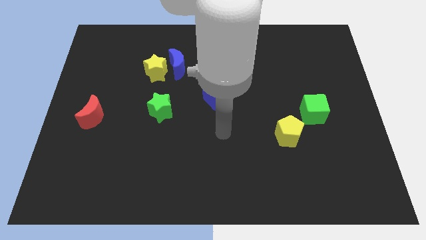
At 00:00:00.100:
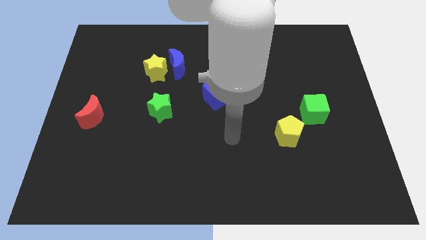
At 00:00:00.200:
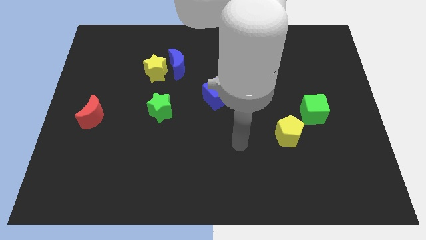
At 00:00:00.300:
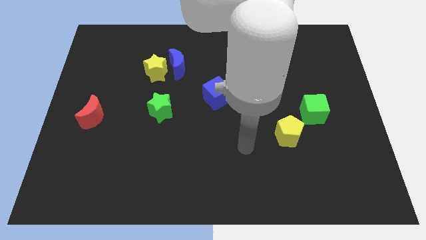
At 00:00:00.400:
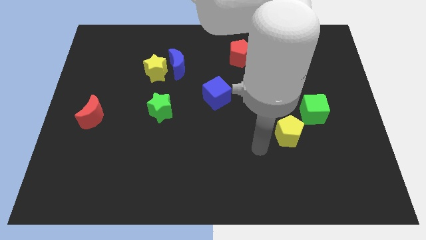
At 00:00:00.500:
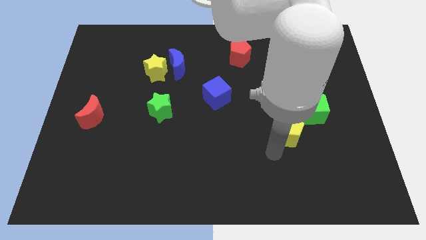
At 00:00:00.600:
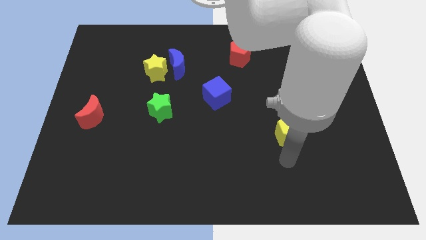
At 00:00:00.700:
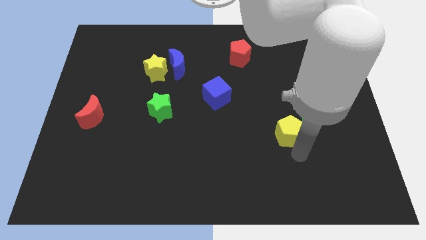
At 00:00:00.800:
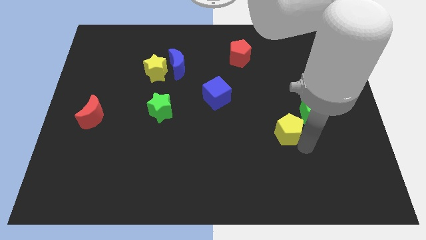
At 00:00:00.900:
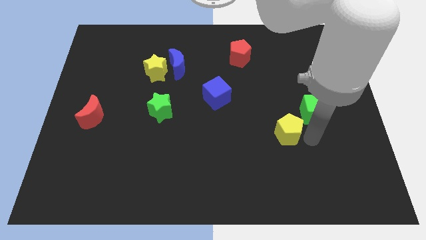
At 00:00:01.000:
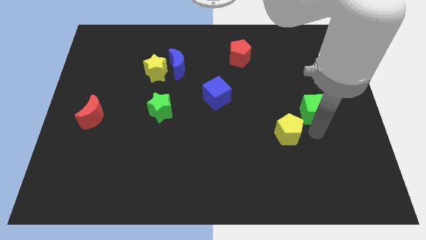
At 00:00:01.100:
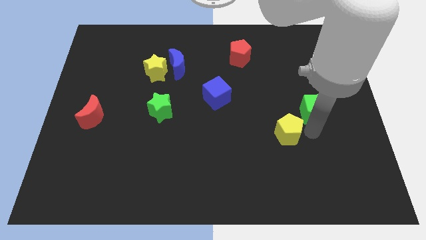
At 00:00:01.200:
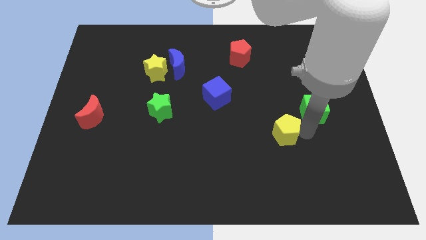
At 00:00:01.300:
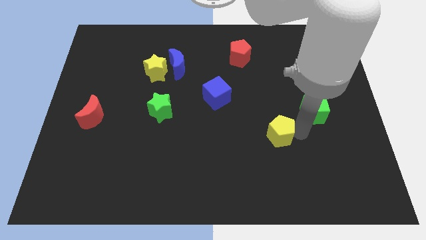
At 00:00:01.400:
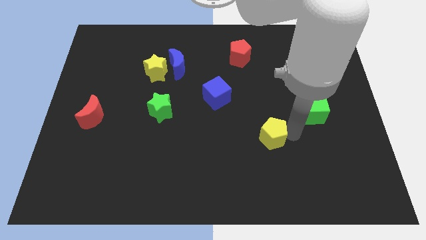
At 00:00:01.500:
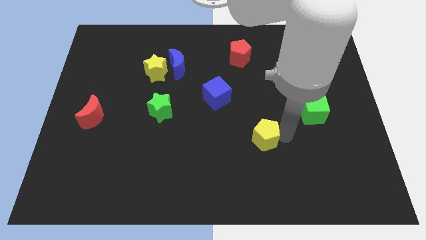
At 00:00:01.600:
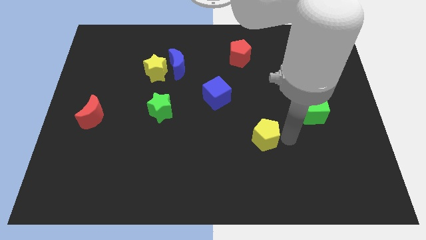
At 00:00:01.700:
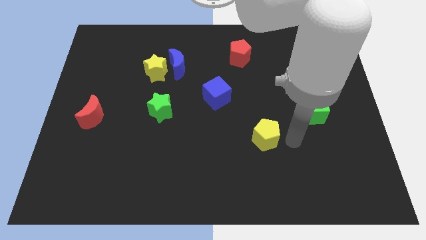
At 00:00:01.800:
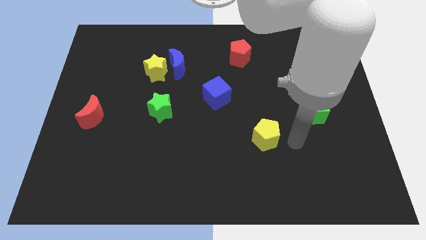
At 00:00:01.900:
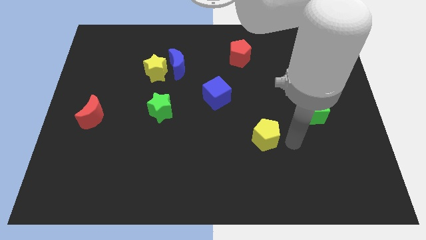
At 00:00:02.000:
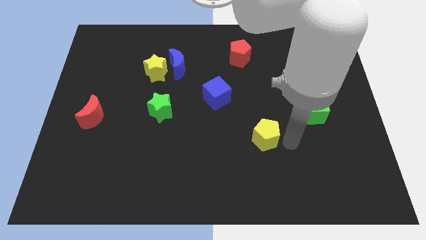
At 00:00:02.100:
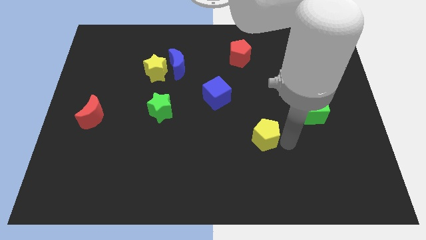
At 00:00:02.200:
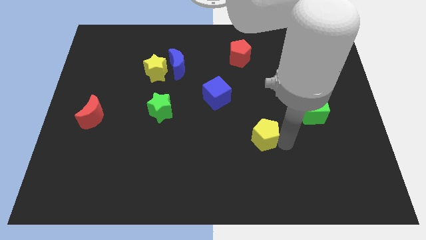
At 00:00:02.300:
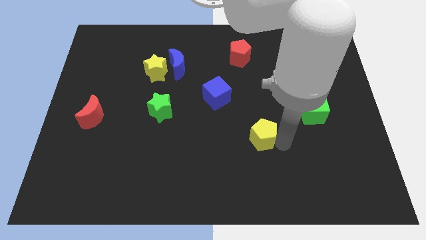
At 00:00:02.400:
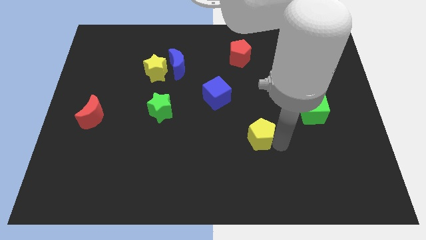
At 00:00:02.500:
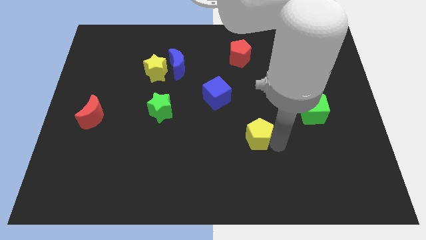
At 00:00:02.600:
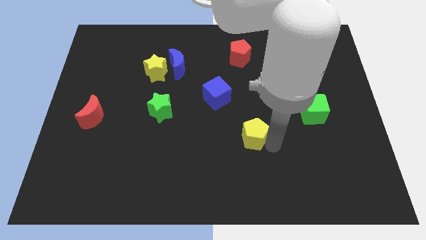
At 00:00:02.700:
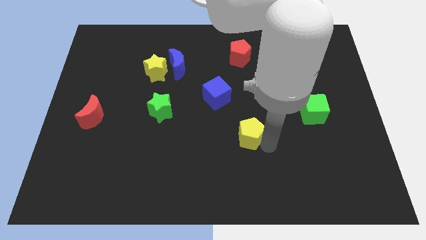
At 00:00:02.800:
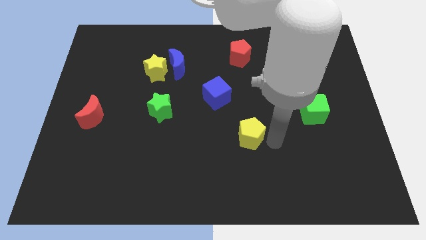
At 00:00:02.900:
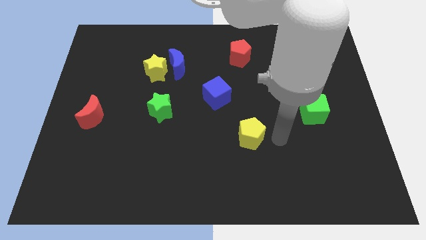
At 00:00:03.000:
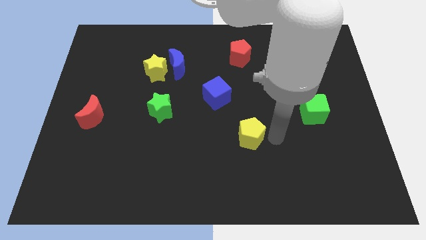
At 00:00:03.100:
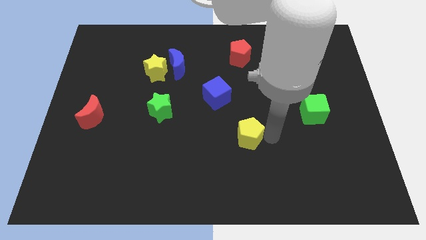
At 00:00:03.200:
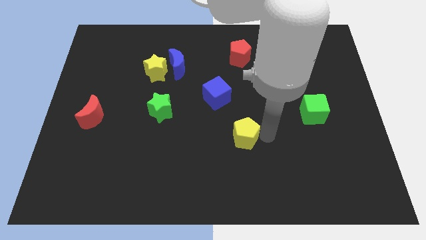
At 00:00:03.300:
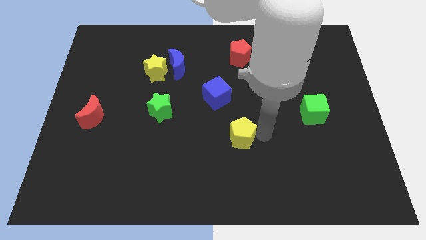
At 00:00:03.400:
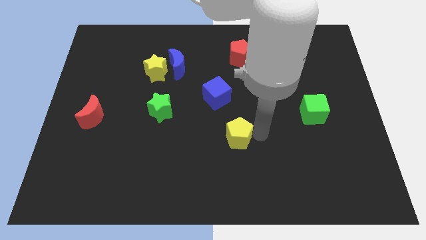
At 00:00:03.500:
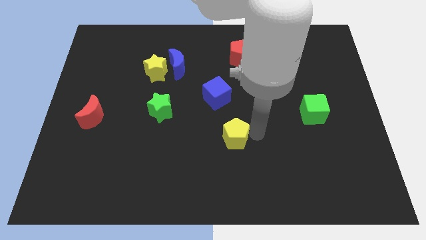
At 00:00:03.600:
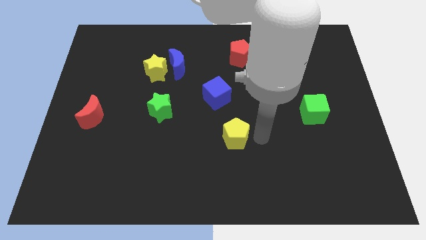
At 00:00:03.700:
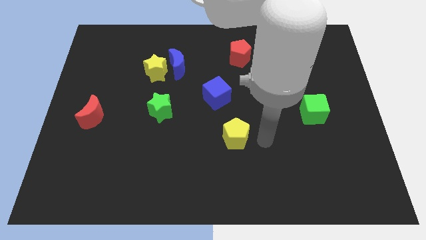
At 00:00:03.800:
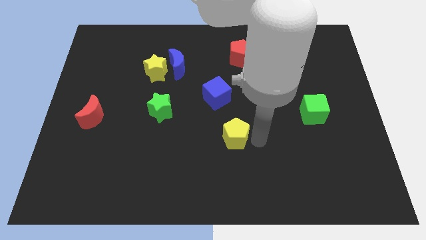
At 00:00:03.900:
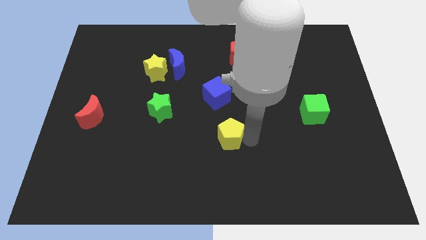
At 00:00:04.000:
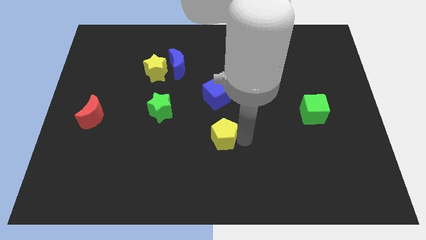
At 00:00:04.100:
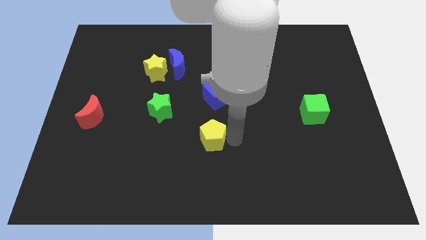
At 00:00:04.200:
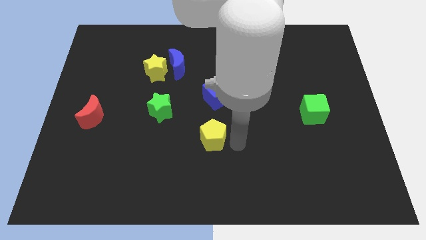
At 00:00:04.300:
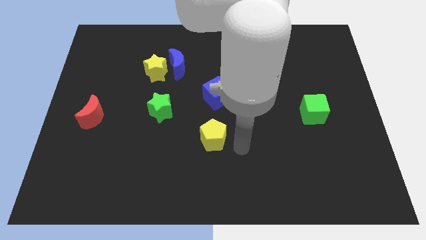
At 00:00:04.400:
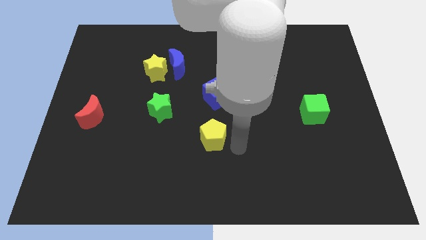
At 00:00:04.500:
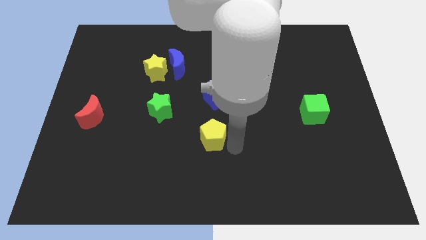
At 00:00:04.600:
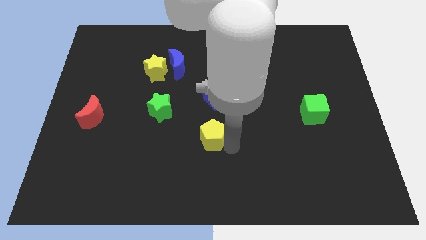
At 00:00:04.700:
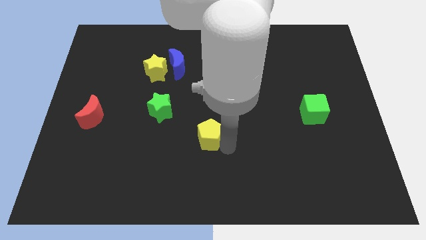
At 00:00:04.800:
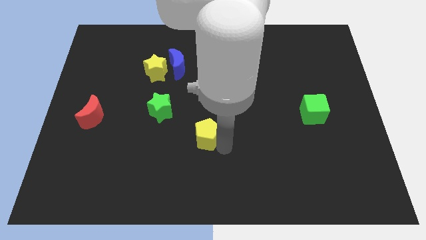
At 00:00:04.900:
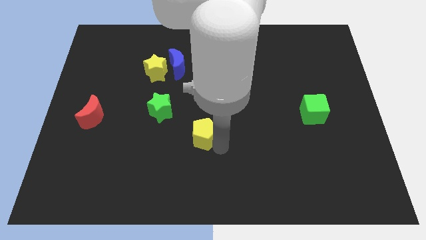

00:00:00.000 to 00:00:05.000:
push the yellow pentagon to the bottom right of the green star

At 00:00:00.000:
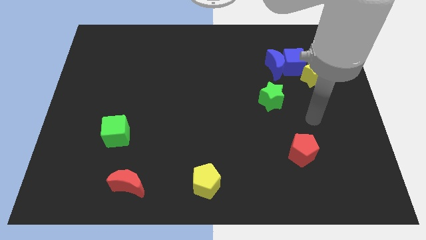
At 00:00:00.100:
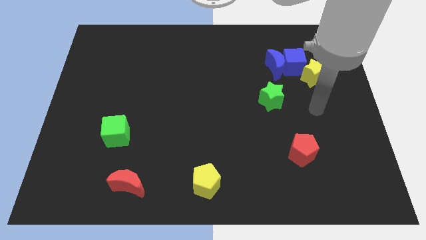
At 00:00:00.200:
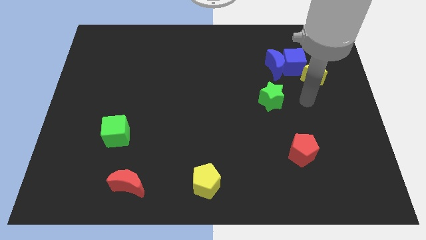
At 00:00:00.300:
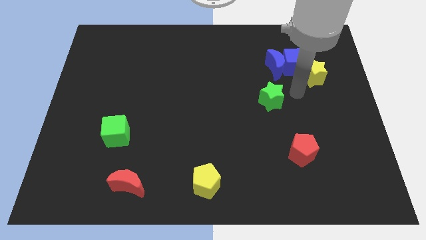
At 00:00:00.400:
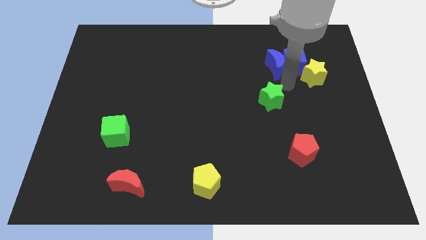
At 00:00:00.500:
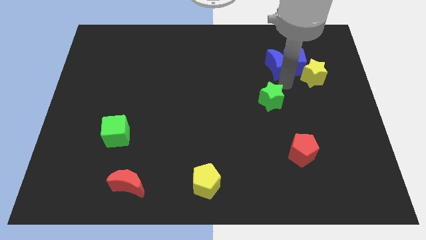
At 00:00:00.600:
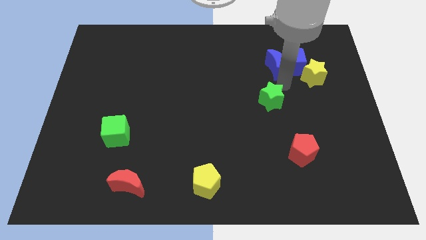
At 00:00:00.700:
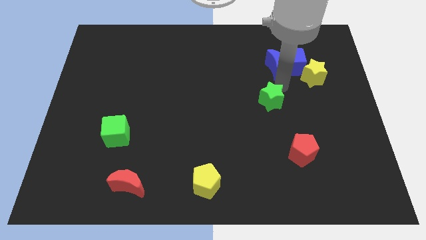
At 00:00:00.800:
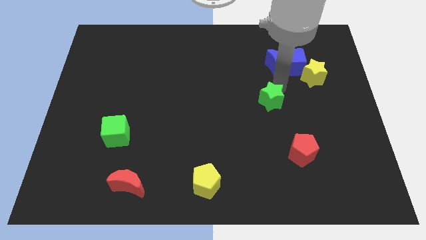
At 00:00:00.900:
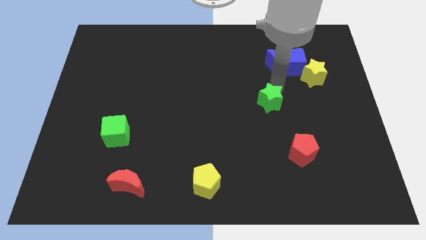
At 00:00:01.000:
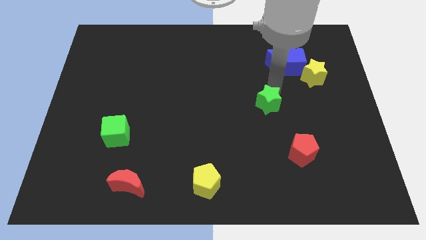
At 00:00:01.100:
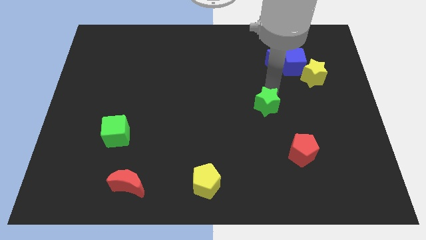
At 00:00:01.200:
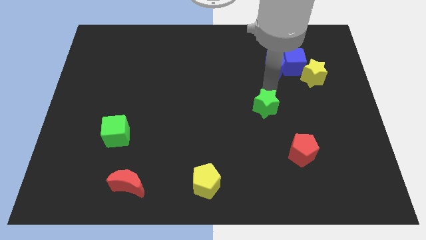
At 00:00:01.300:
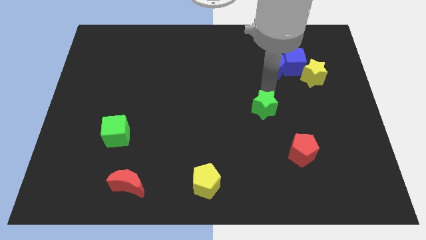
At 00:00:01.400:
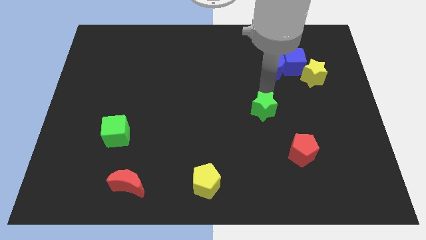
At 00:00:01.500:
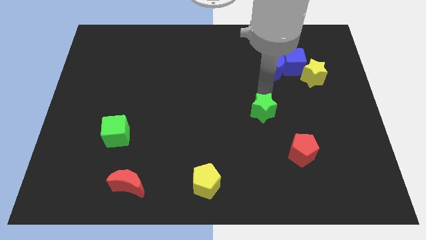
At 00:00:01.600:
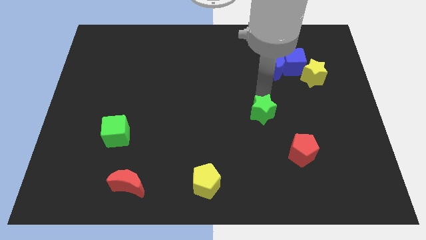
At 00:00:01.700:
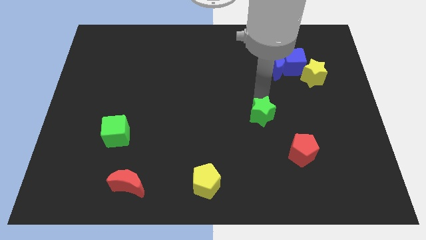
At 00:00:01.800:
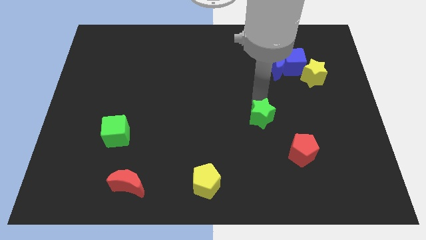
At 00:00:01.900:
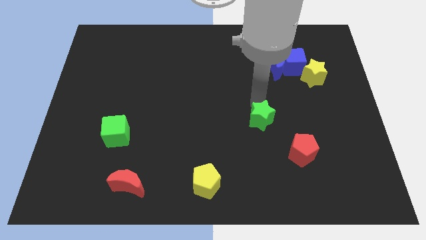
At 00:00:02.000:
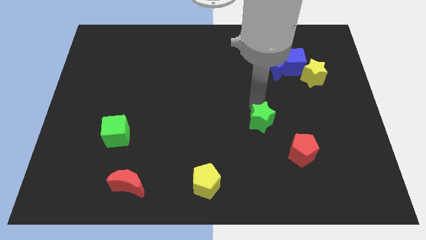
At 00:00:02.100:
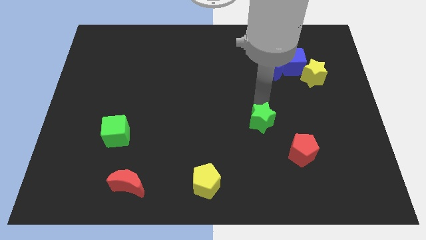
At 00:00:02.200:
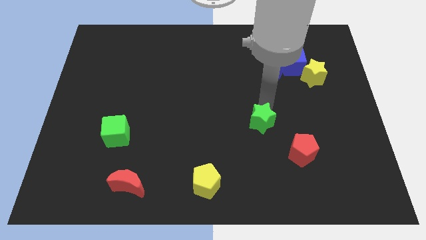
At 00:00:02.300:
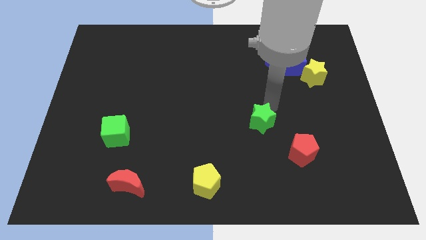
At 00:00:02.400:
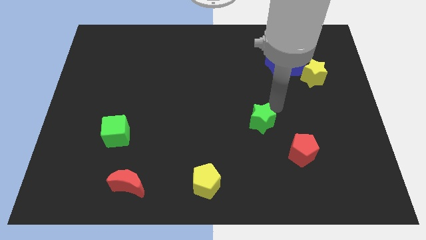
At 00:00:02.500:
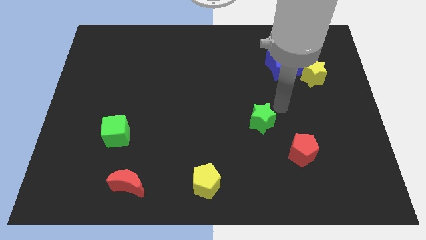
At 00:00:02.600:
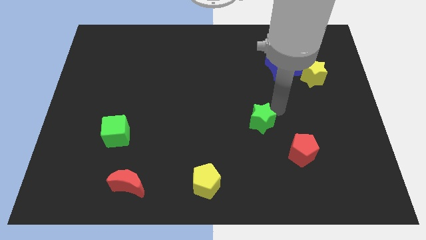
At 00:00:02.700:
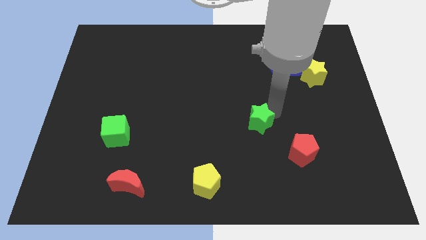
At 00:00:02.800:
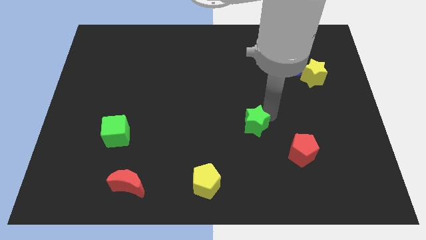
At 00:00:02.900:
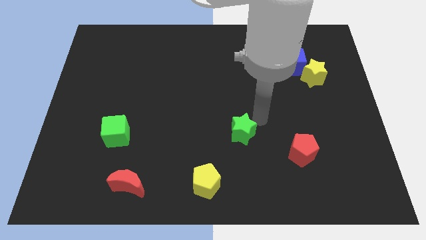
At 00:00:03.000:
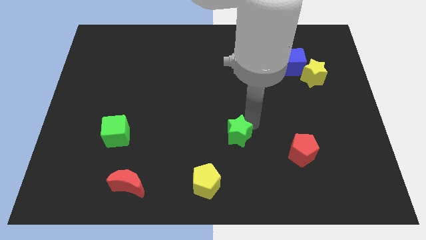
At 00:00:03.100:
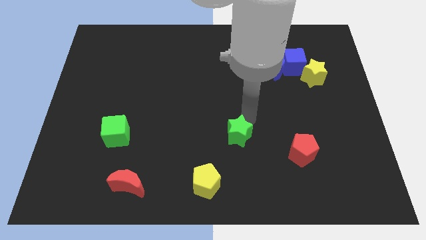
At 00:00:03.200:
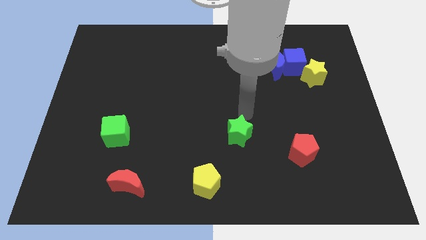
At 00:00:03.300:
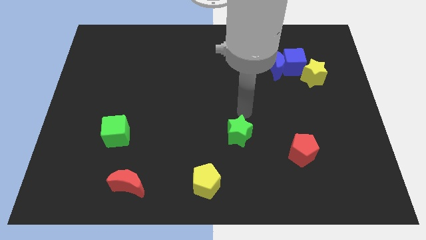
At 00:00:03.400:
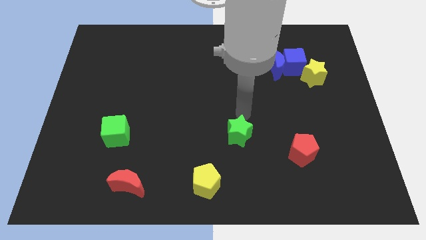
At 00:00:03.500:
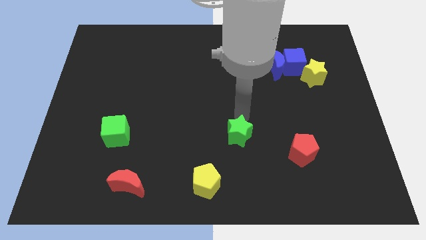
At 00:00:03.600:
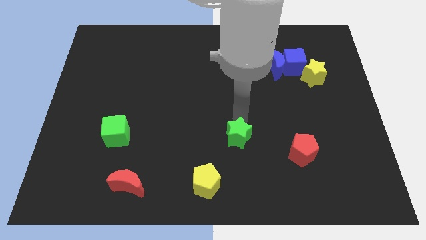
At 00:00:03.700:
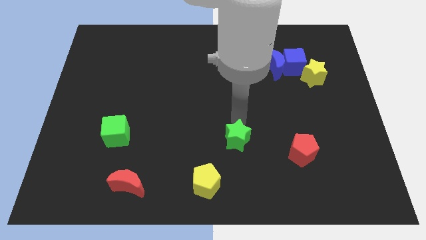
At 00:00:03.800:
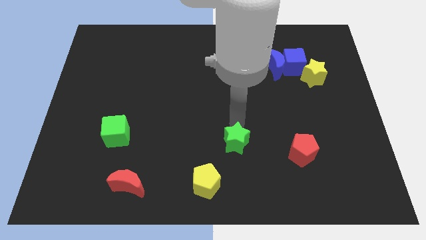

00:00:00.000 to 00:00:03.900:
push the green star diagonally up and to the right of the yellow pentagon
